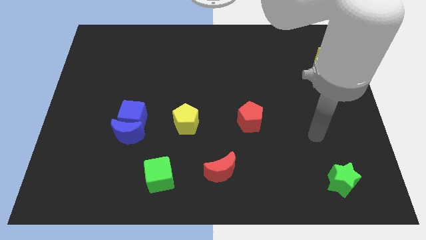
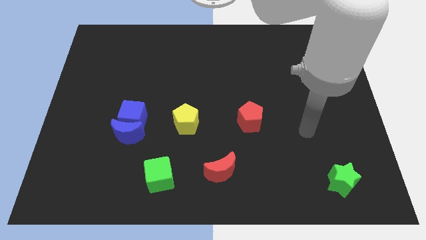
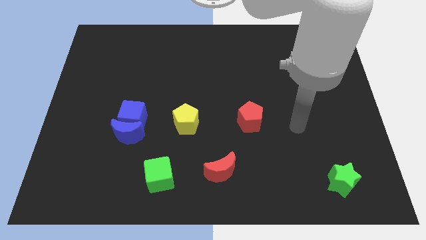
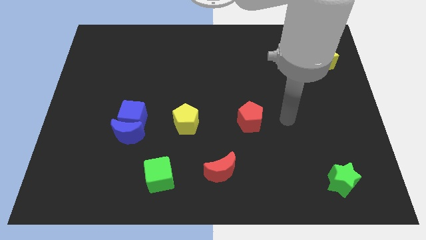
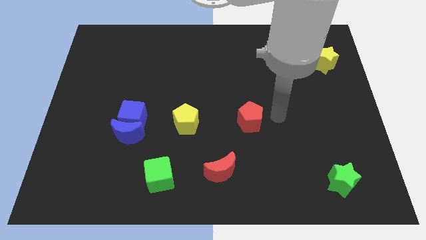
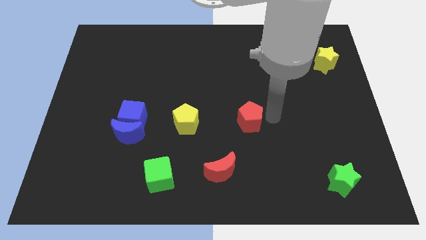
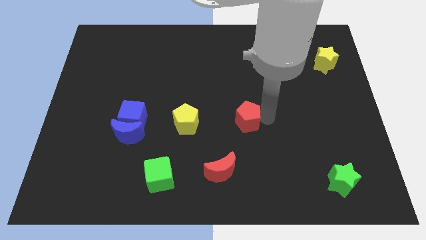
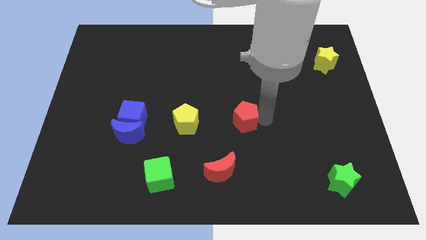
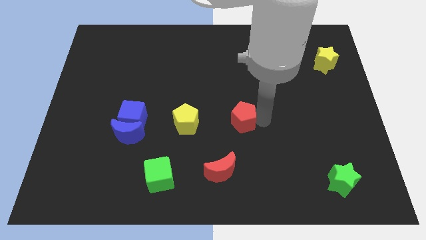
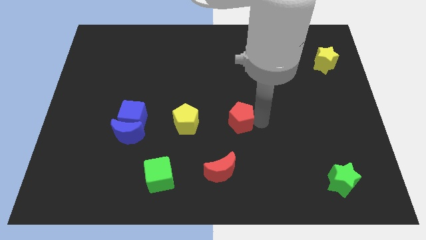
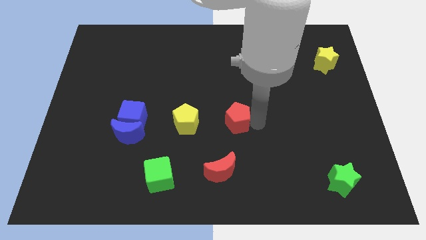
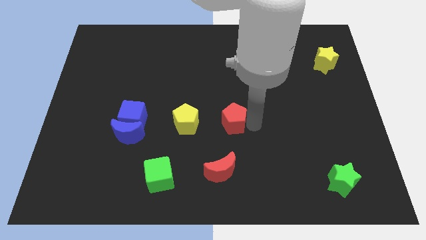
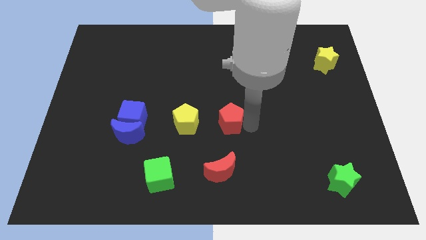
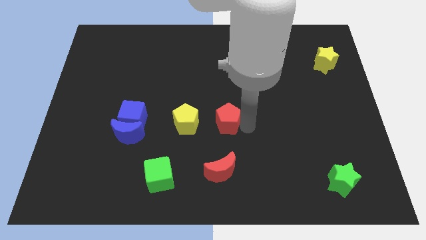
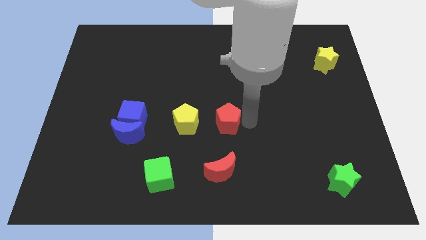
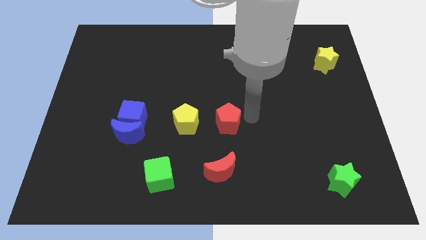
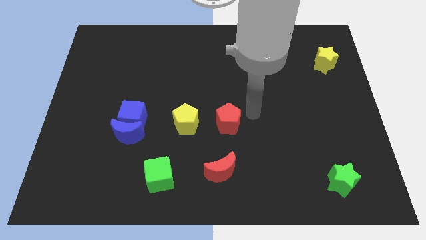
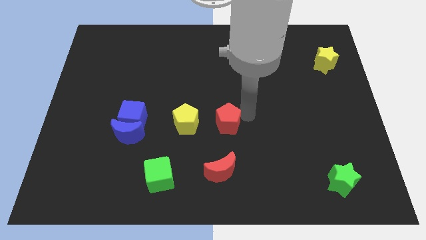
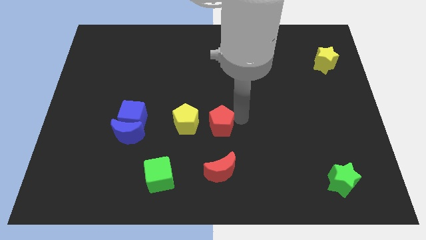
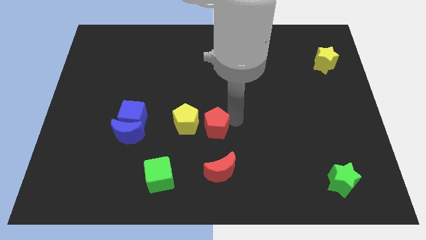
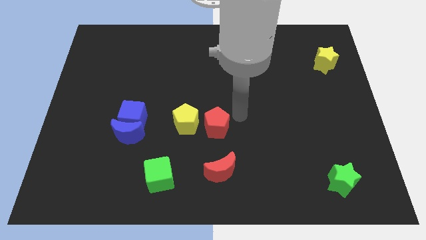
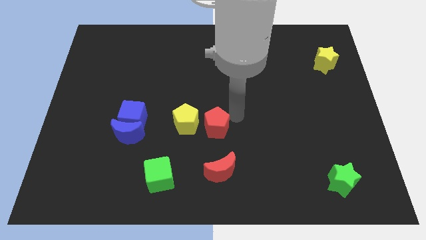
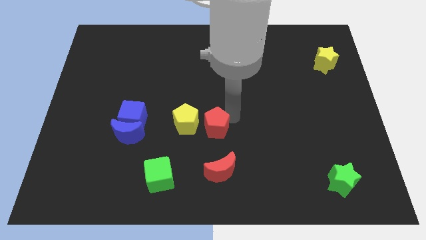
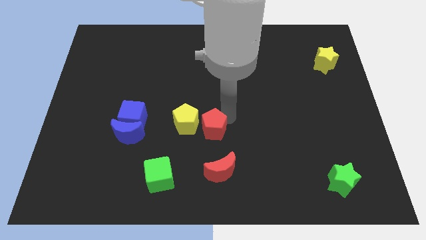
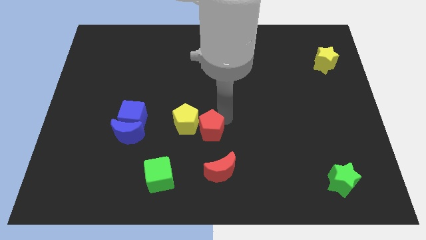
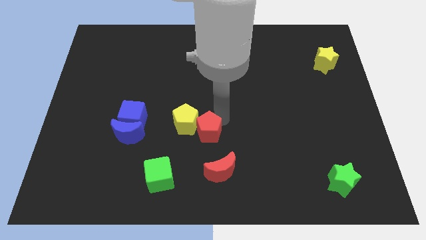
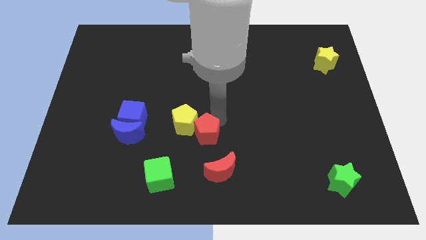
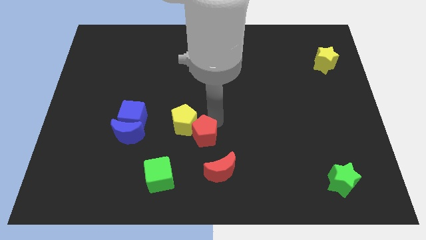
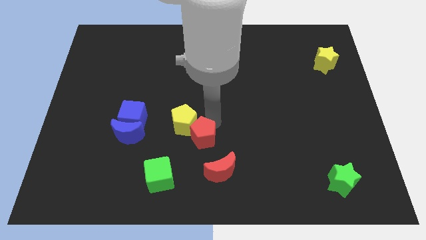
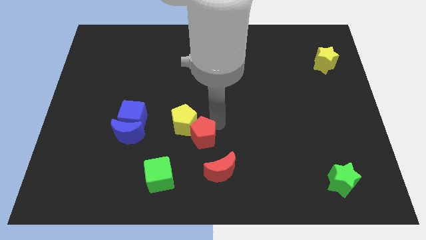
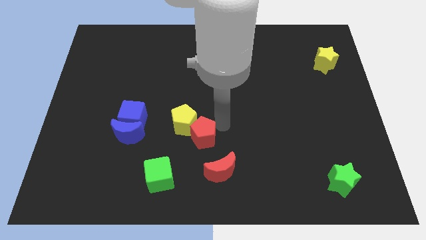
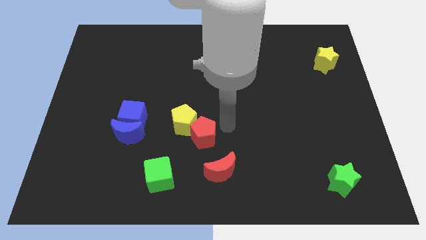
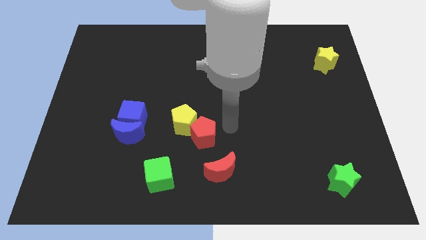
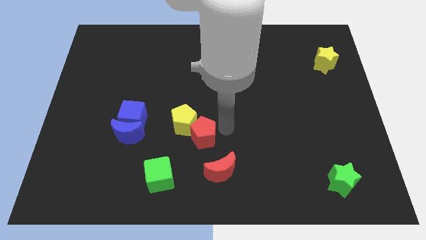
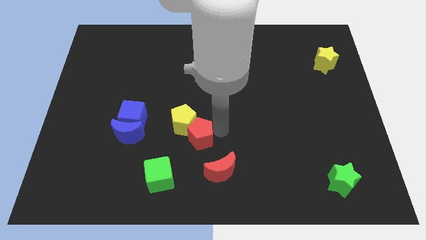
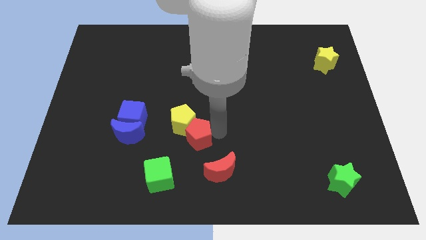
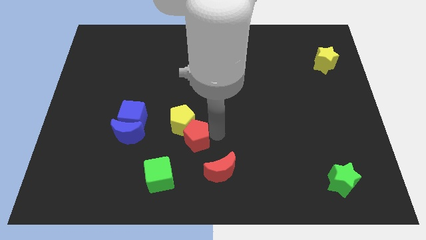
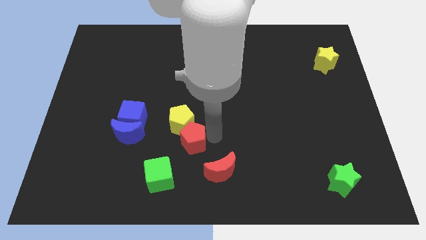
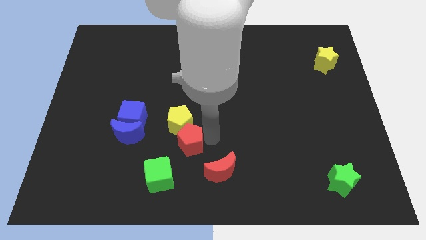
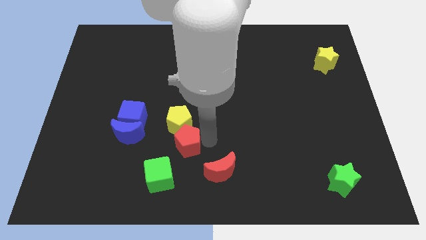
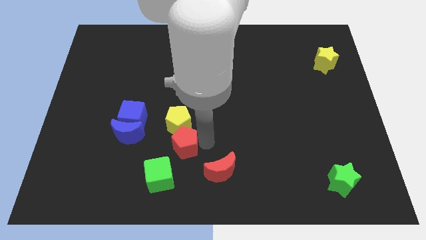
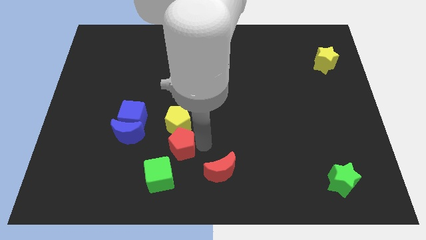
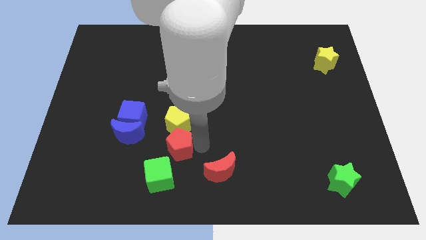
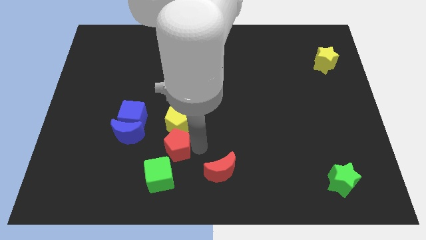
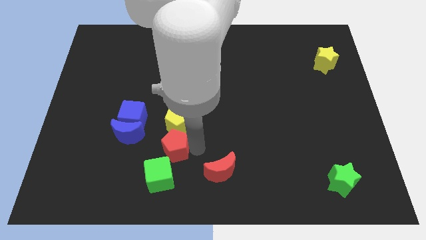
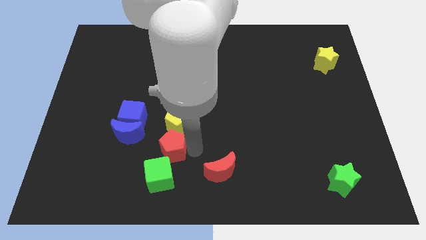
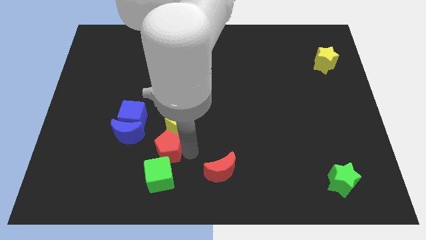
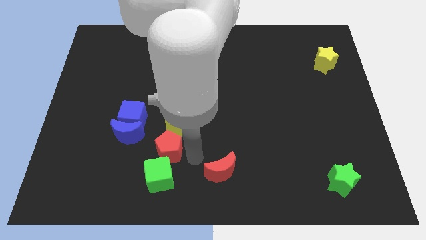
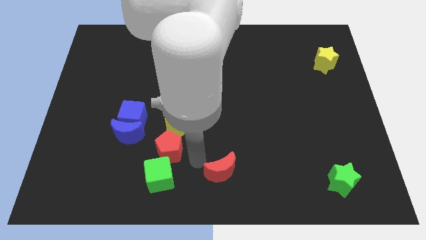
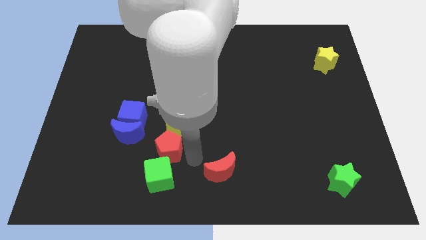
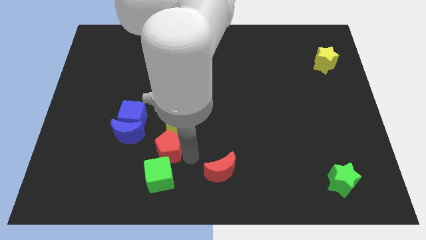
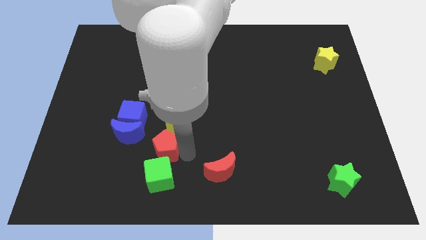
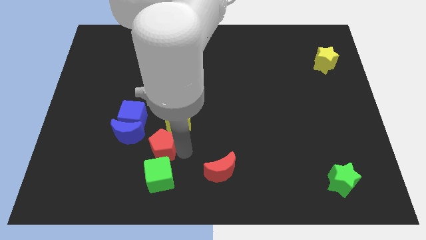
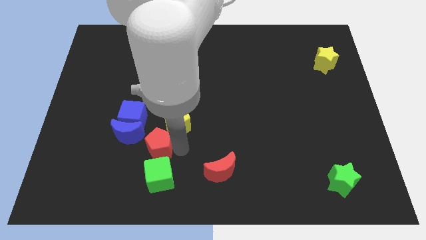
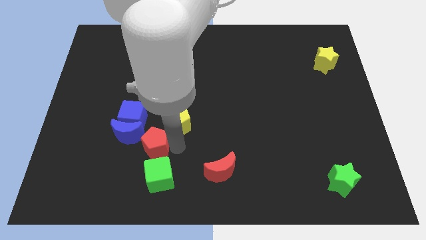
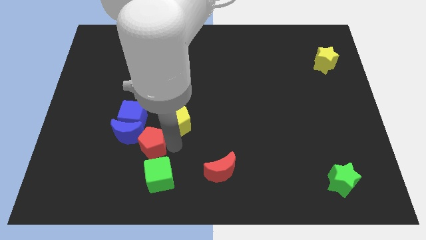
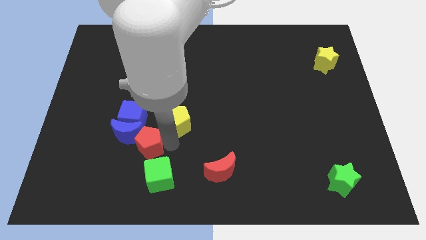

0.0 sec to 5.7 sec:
push the red pentagon to the blue moon

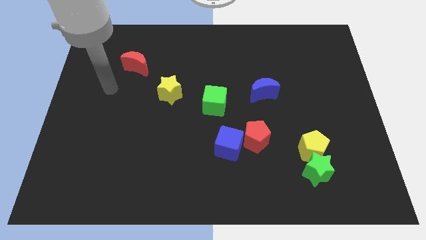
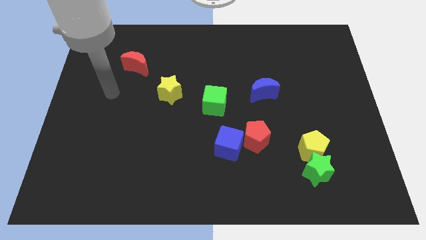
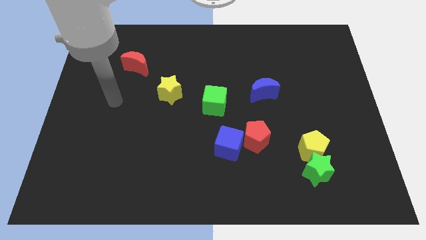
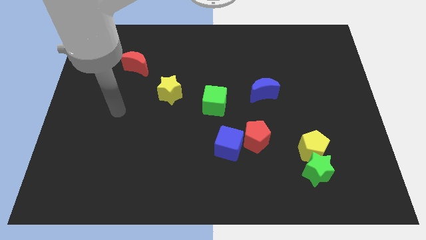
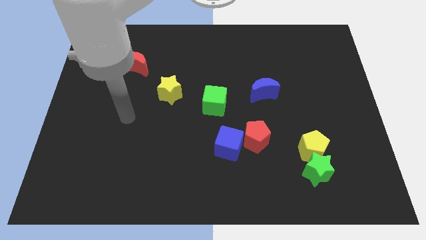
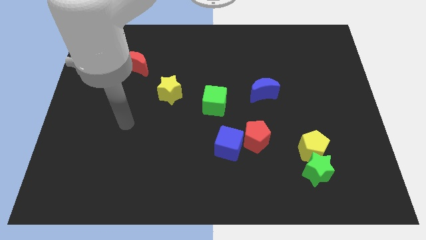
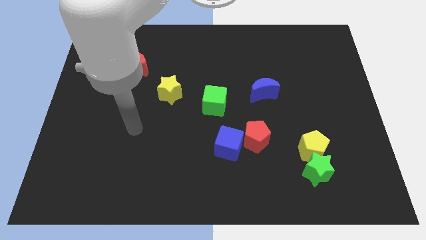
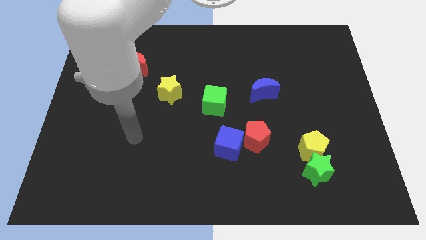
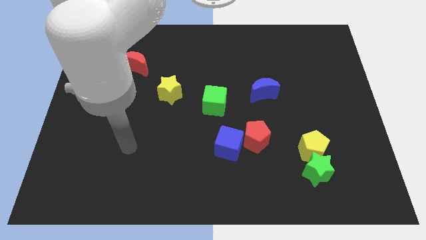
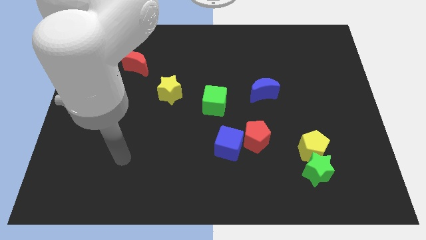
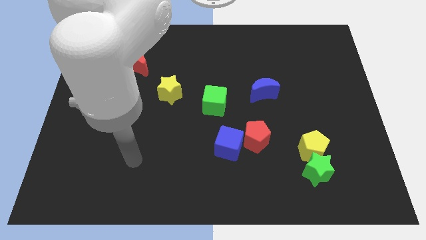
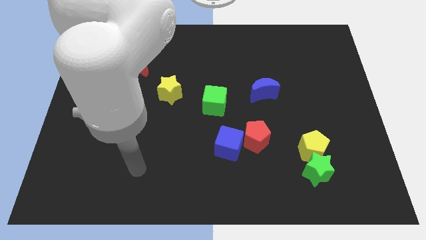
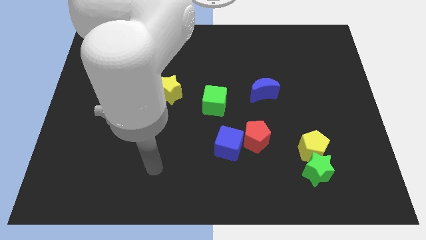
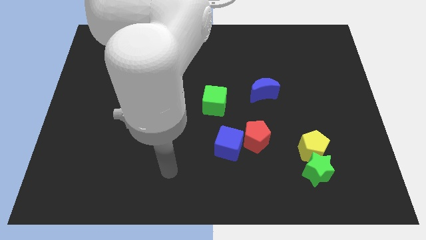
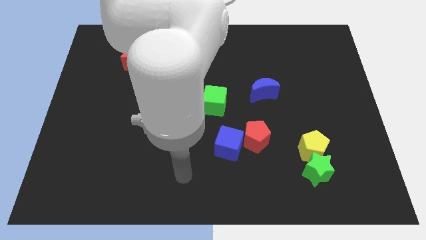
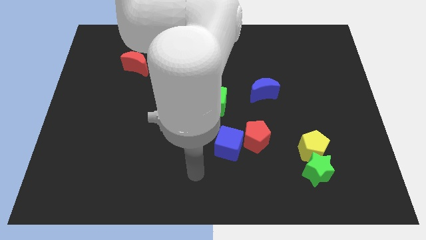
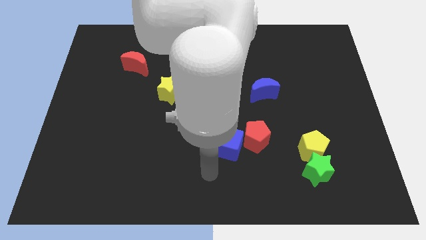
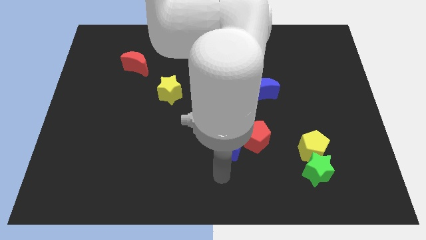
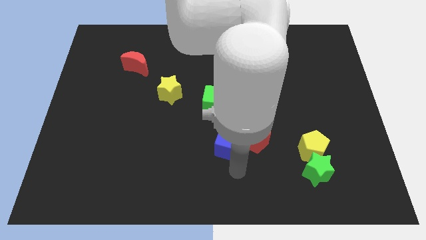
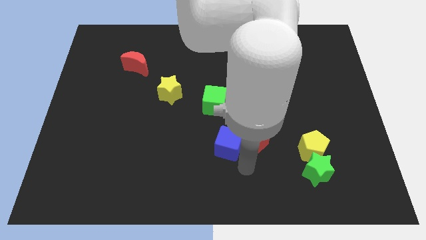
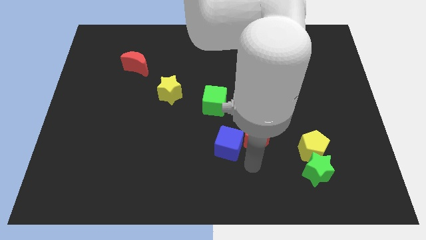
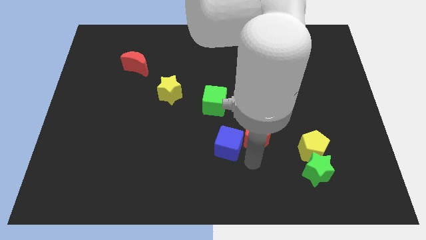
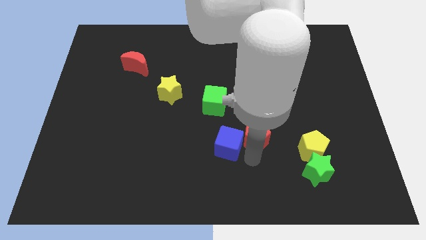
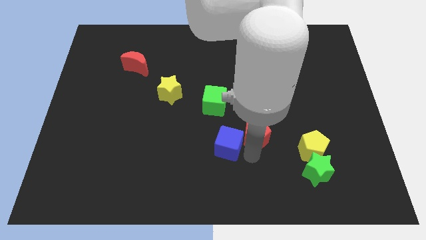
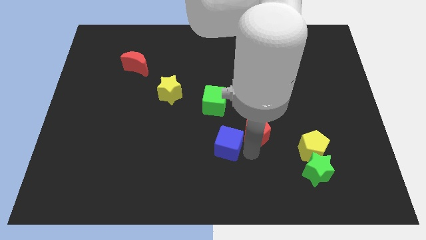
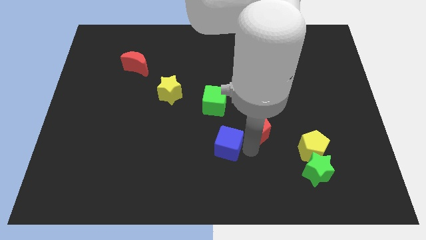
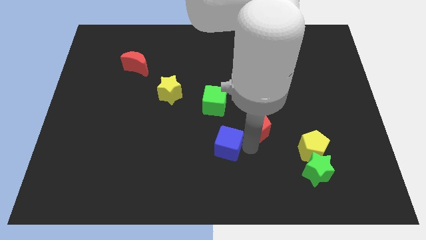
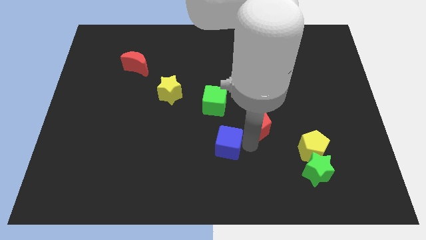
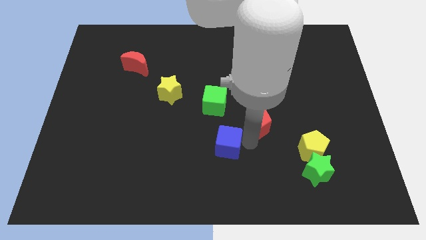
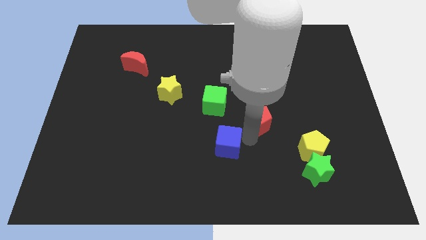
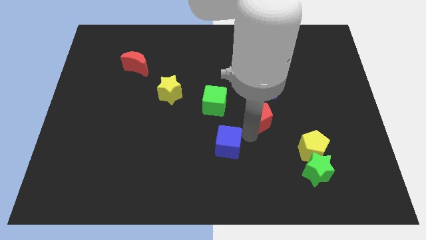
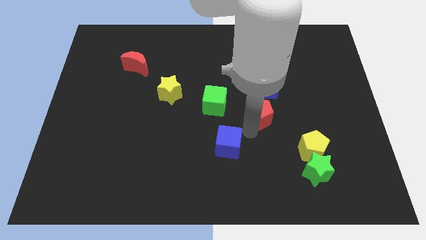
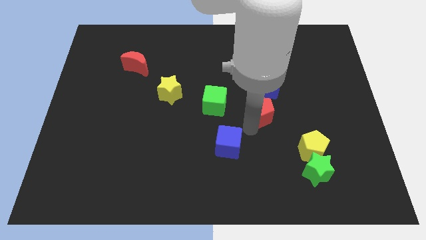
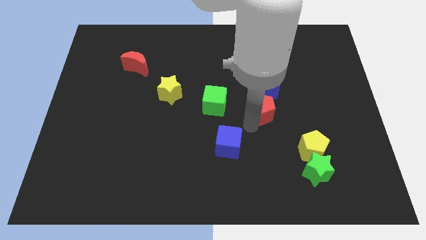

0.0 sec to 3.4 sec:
slide the red pentagon next to the blue moon
